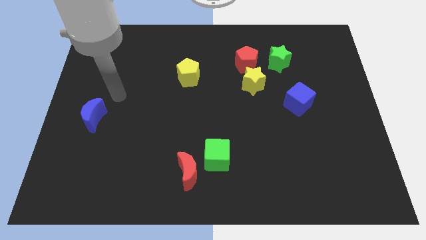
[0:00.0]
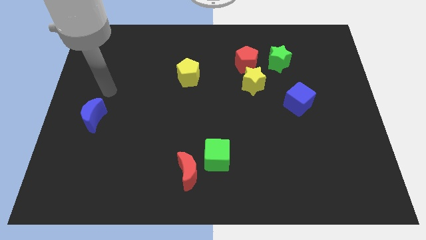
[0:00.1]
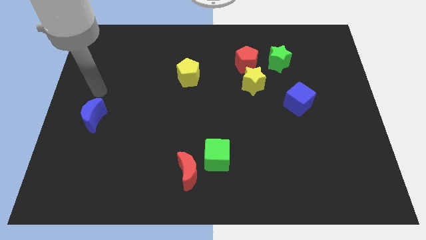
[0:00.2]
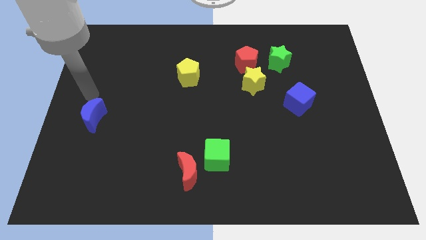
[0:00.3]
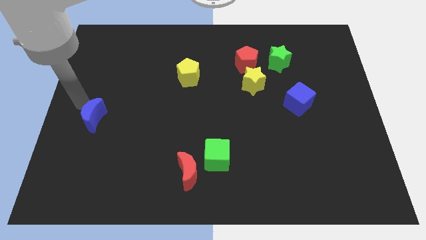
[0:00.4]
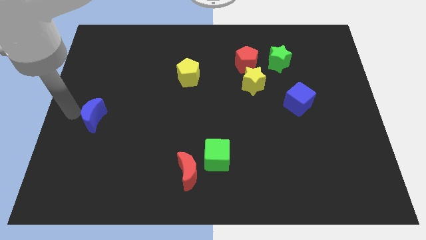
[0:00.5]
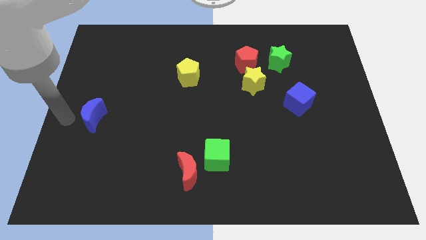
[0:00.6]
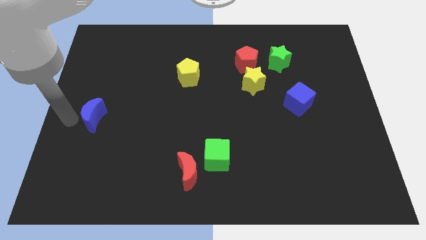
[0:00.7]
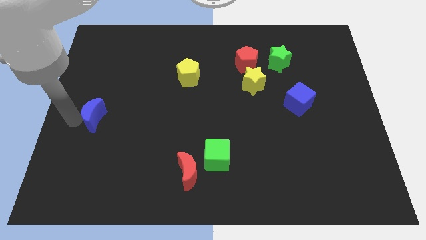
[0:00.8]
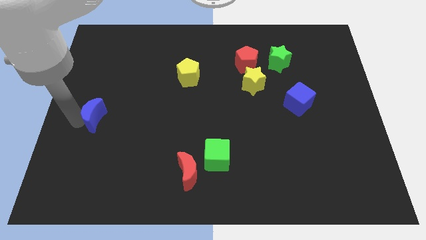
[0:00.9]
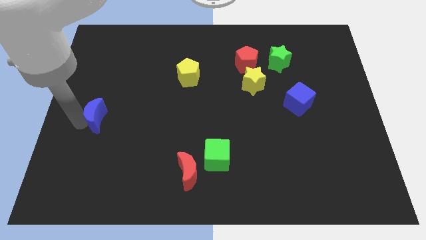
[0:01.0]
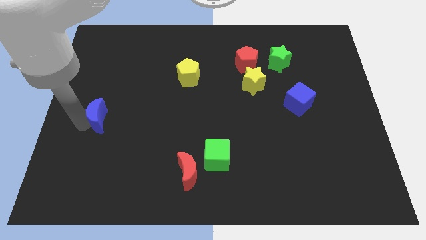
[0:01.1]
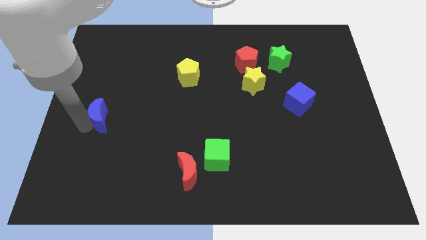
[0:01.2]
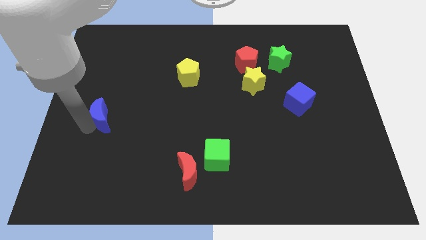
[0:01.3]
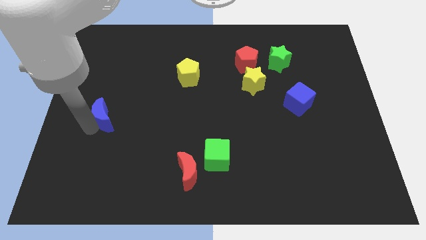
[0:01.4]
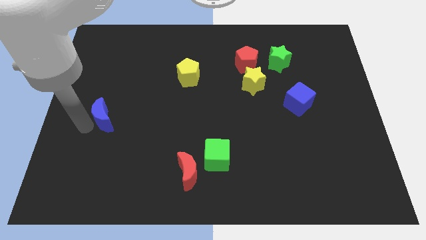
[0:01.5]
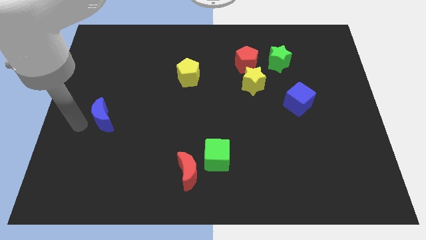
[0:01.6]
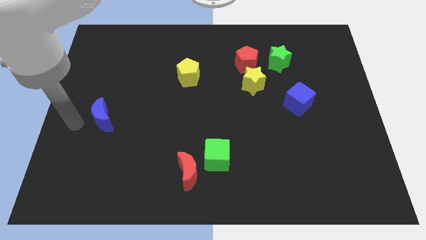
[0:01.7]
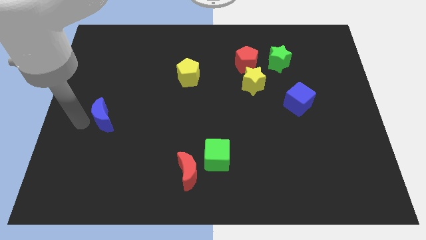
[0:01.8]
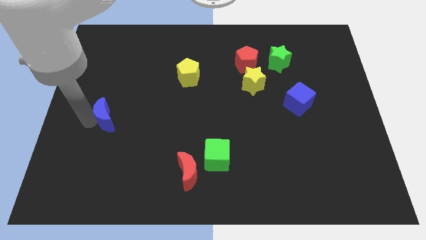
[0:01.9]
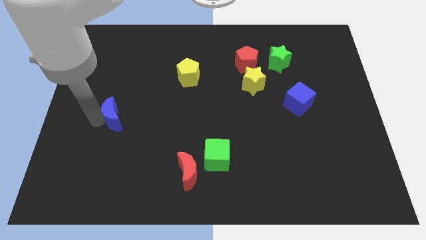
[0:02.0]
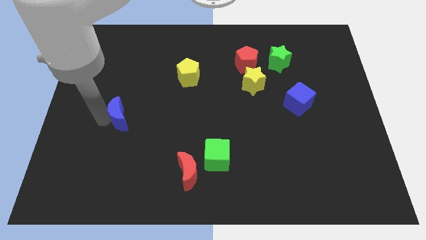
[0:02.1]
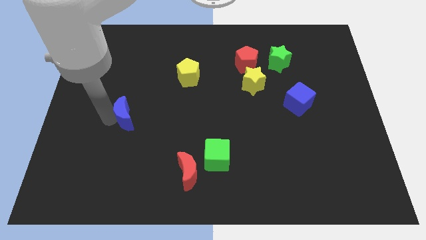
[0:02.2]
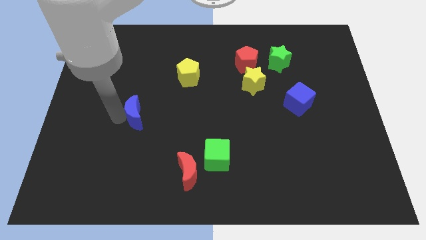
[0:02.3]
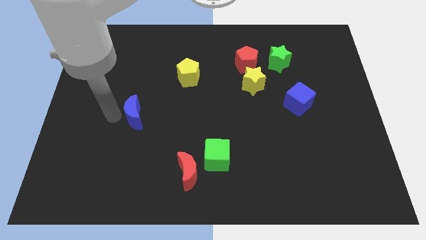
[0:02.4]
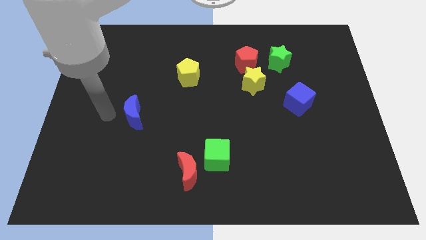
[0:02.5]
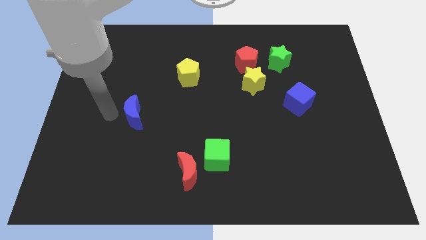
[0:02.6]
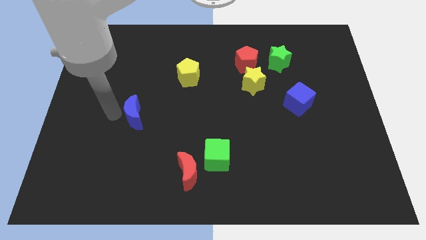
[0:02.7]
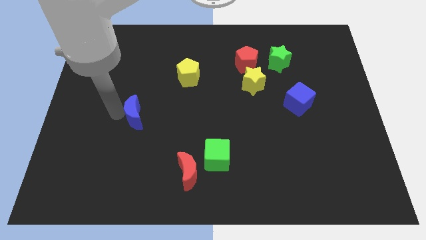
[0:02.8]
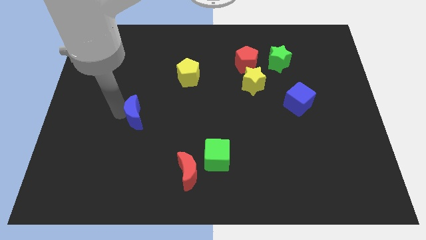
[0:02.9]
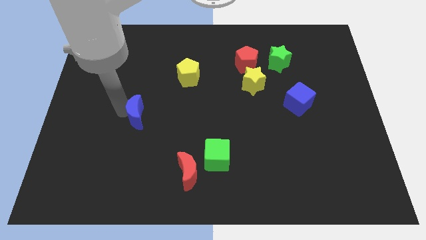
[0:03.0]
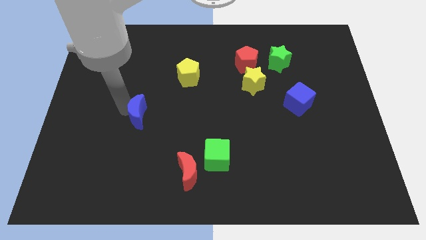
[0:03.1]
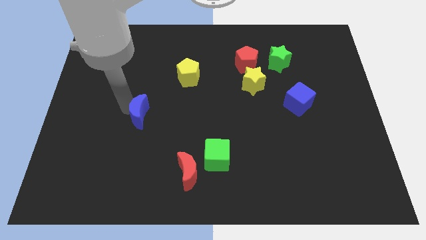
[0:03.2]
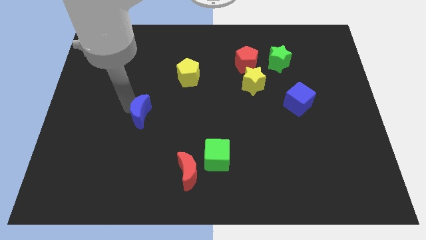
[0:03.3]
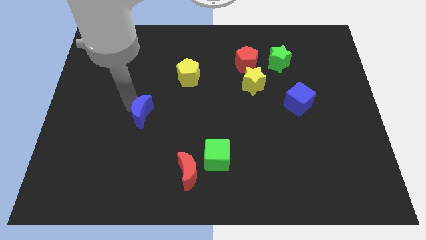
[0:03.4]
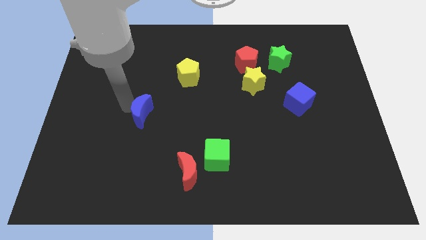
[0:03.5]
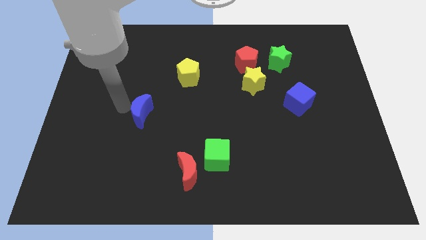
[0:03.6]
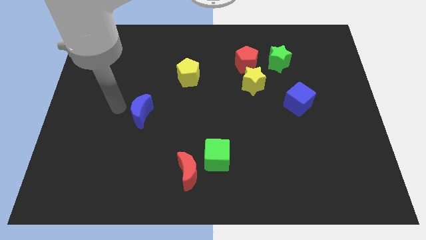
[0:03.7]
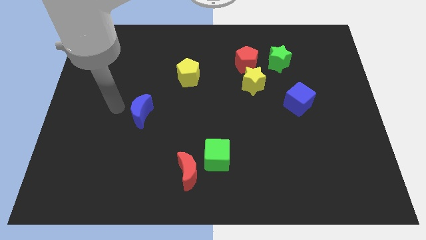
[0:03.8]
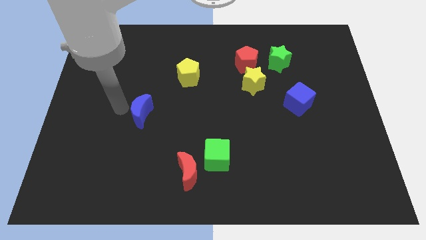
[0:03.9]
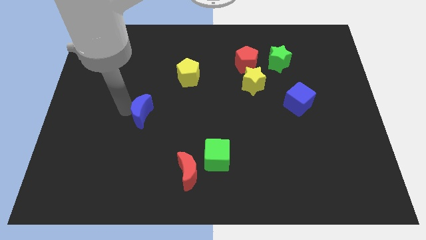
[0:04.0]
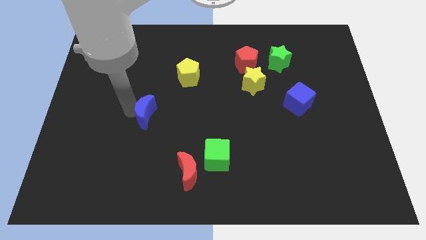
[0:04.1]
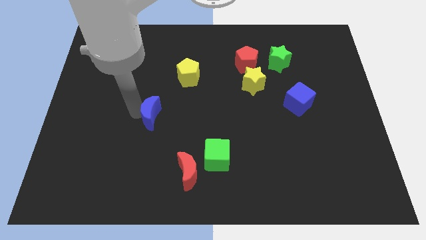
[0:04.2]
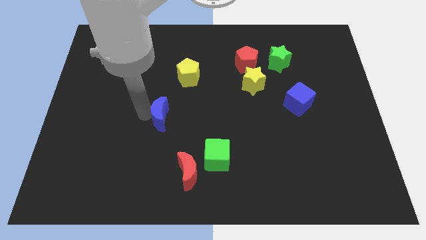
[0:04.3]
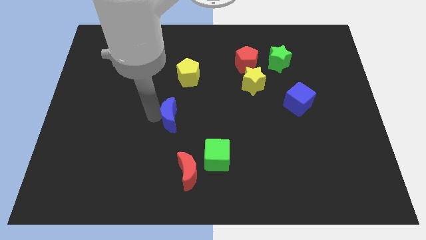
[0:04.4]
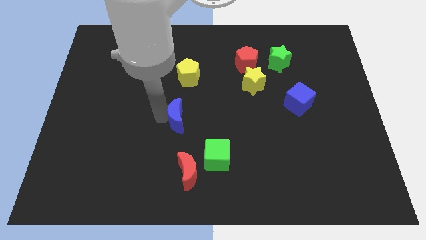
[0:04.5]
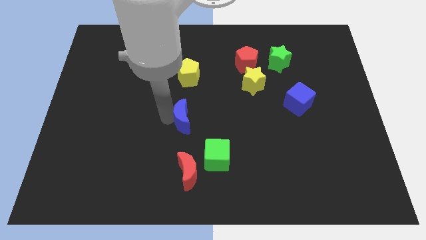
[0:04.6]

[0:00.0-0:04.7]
slide the blue moon right

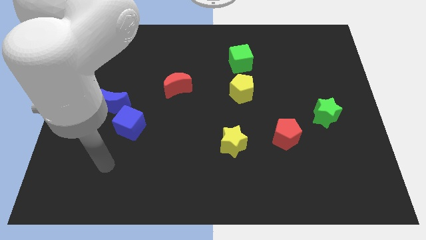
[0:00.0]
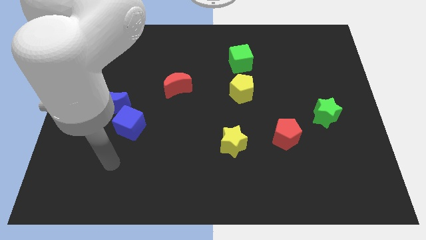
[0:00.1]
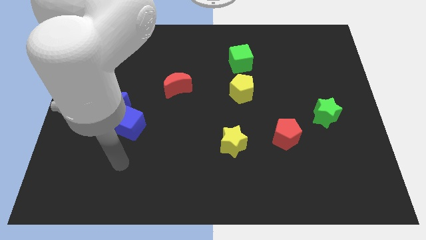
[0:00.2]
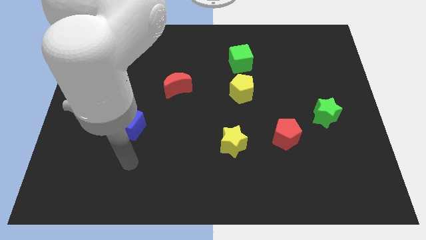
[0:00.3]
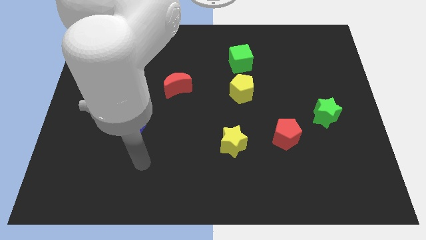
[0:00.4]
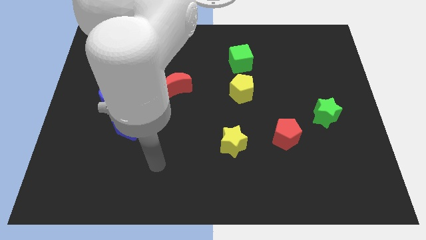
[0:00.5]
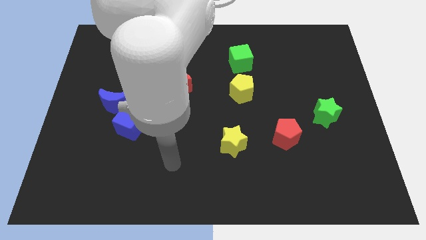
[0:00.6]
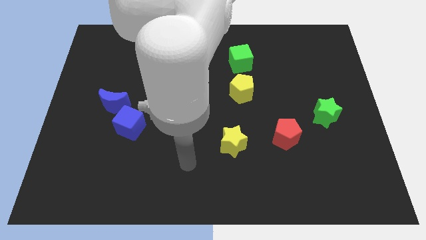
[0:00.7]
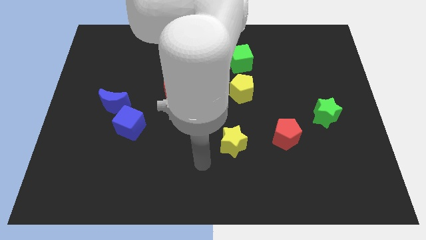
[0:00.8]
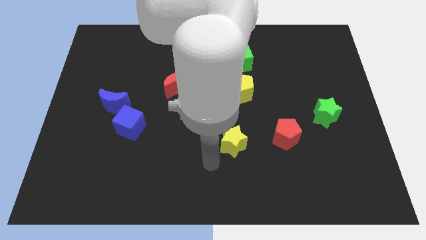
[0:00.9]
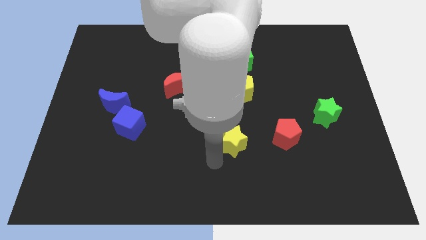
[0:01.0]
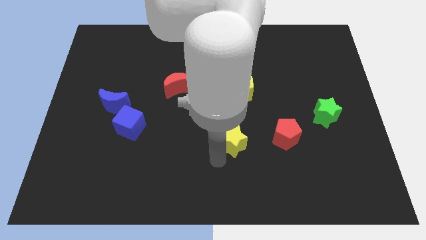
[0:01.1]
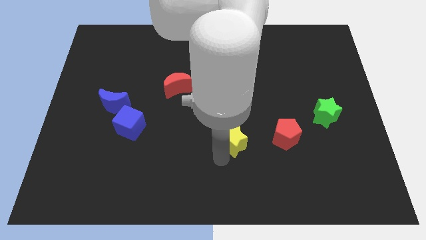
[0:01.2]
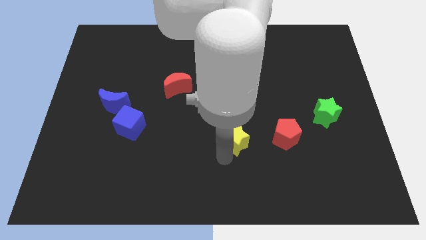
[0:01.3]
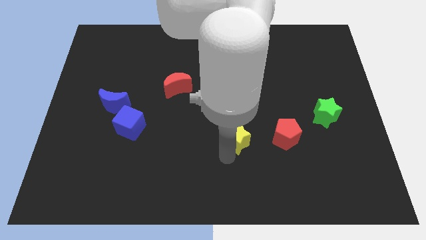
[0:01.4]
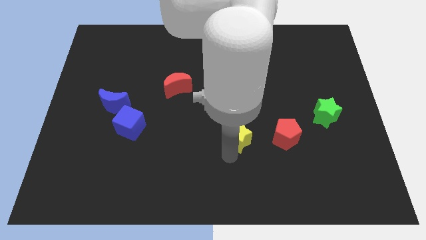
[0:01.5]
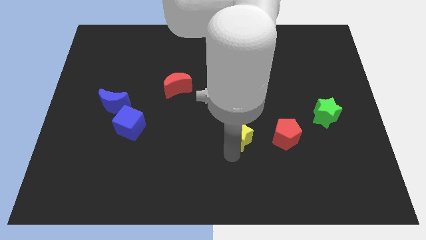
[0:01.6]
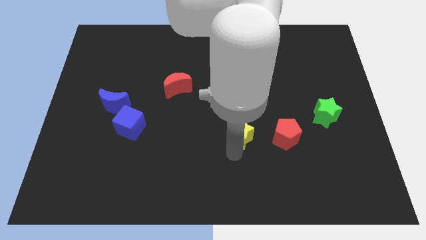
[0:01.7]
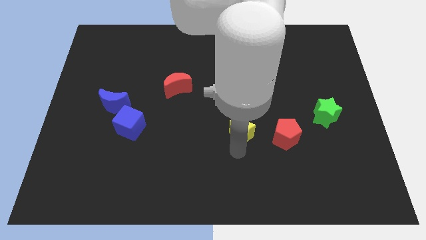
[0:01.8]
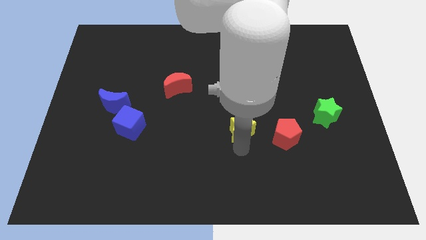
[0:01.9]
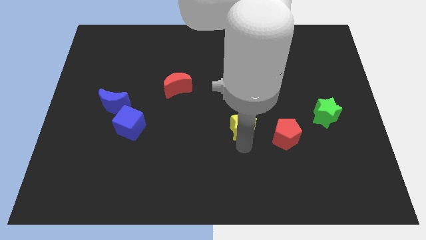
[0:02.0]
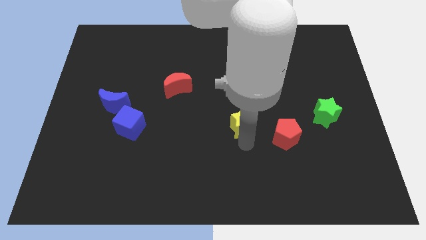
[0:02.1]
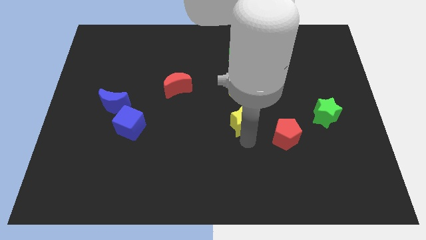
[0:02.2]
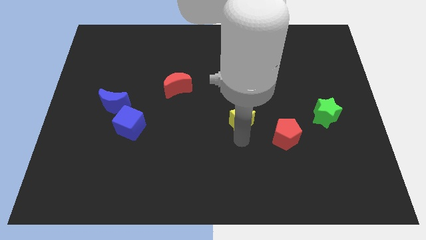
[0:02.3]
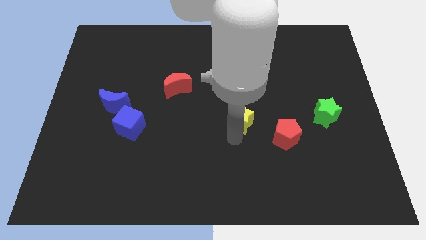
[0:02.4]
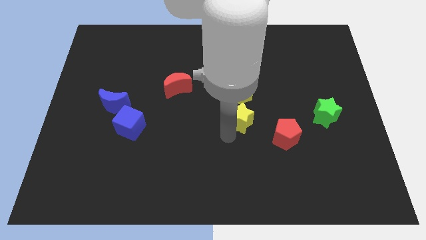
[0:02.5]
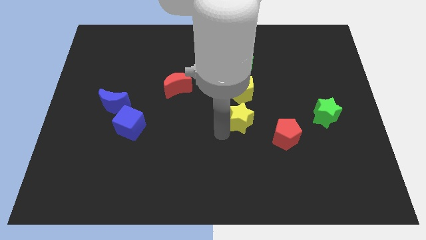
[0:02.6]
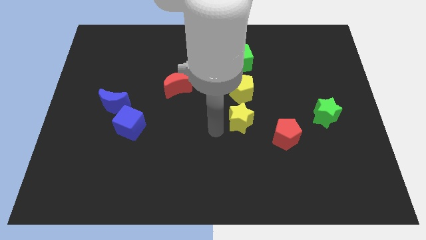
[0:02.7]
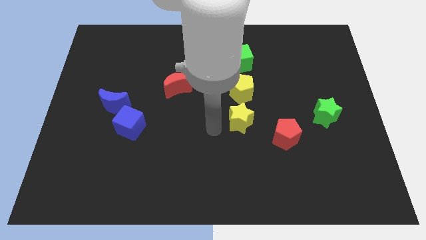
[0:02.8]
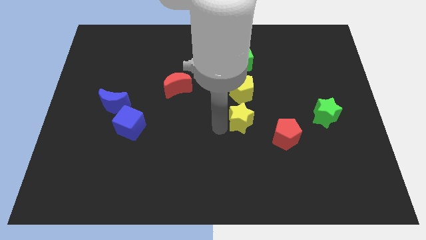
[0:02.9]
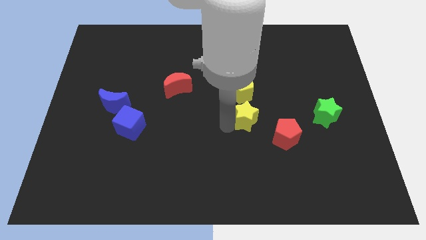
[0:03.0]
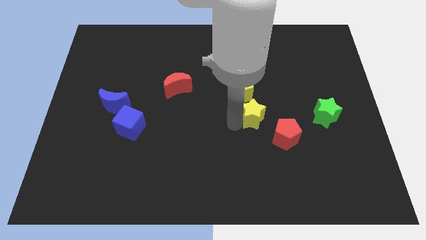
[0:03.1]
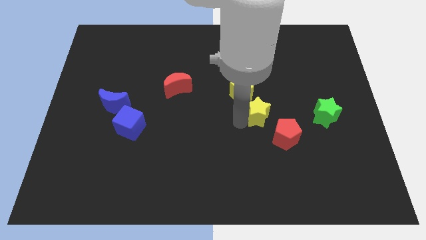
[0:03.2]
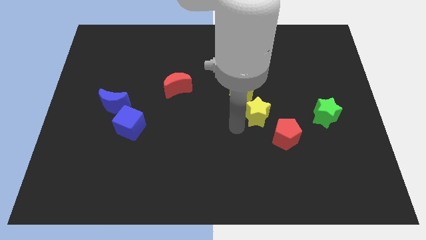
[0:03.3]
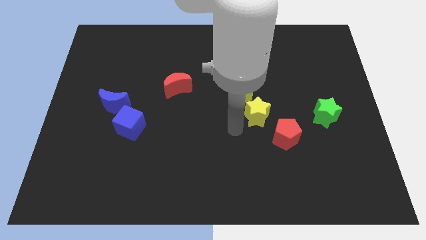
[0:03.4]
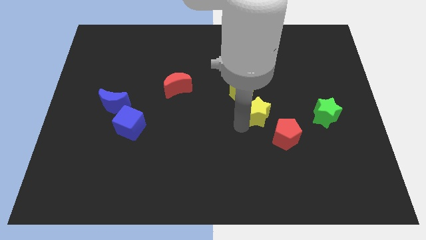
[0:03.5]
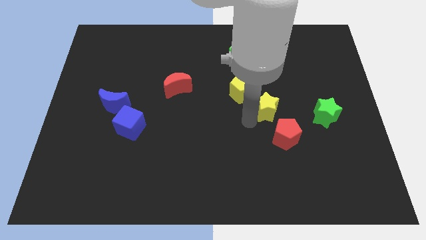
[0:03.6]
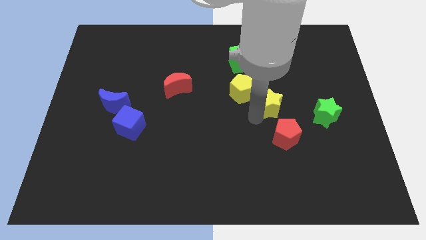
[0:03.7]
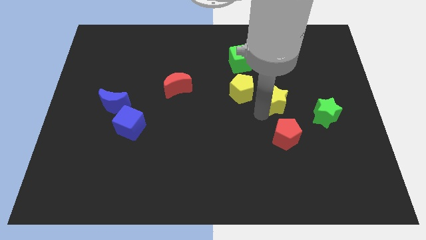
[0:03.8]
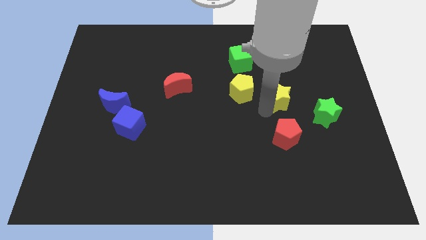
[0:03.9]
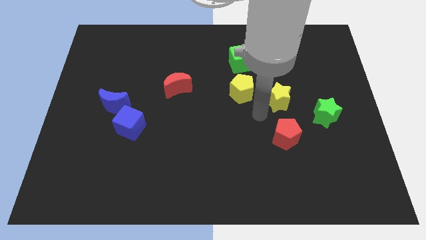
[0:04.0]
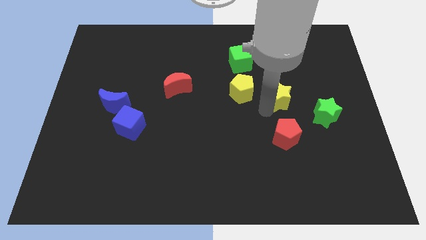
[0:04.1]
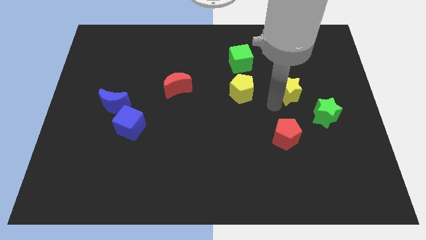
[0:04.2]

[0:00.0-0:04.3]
slide the yellow star diagonally up and to the right
